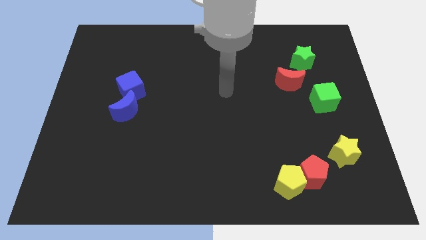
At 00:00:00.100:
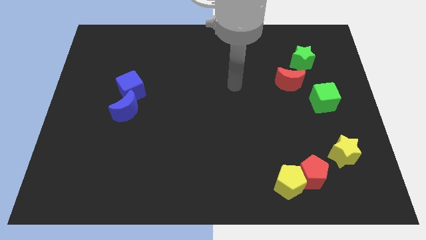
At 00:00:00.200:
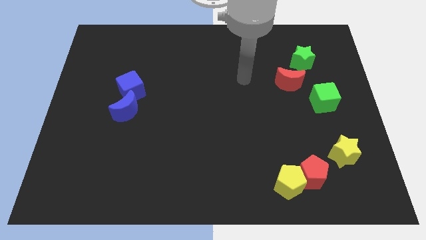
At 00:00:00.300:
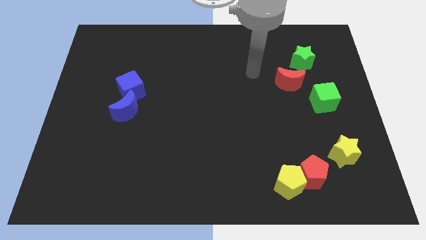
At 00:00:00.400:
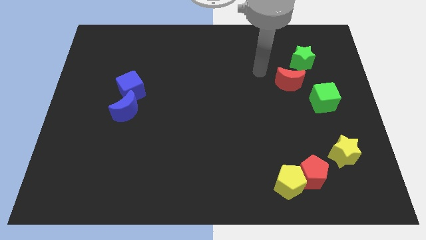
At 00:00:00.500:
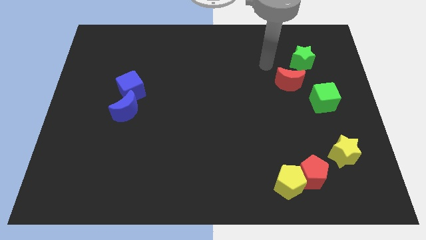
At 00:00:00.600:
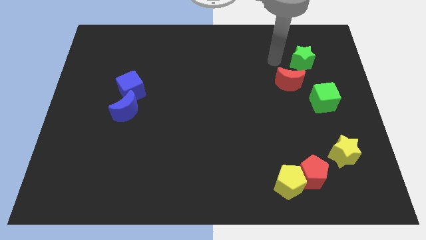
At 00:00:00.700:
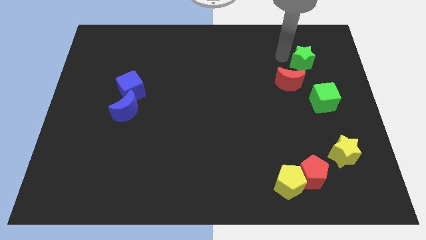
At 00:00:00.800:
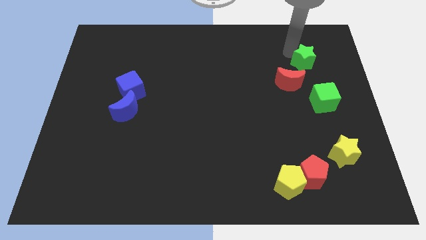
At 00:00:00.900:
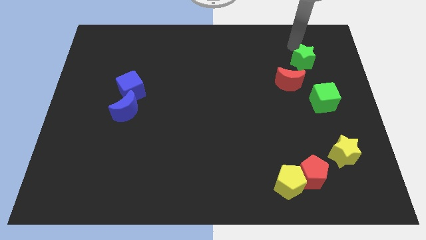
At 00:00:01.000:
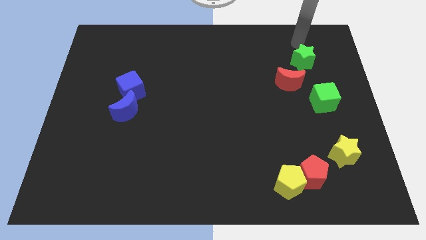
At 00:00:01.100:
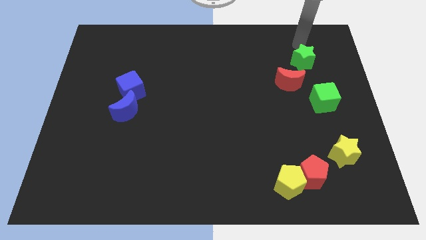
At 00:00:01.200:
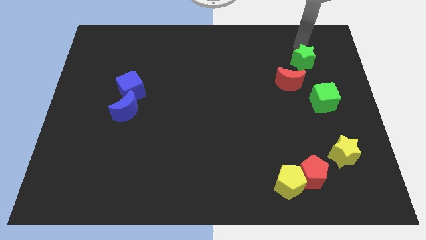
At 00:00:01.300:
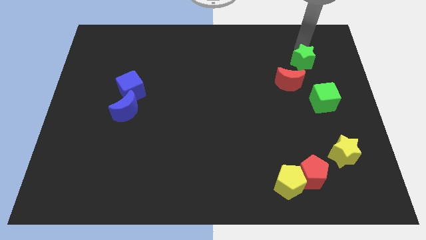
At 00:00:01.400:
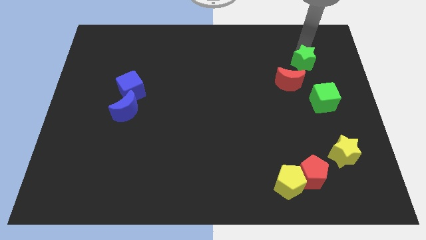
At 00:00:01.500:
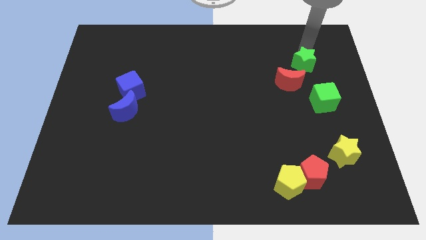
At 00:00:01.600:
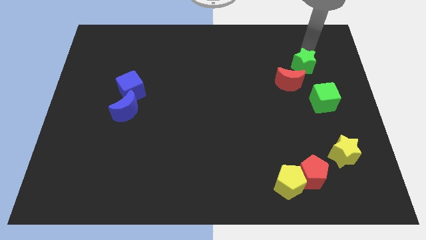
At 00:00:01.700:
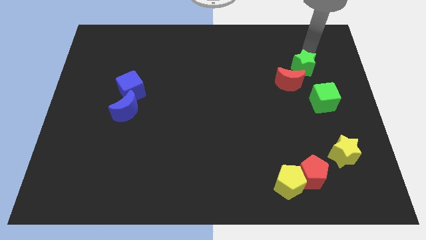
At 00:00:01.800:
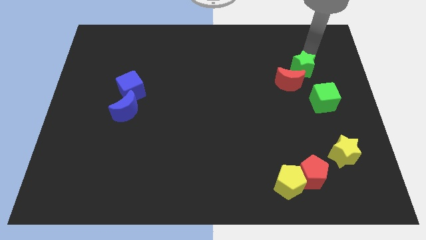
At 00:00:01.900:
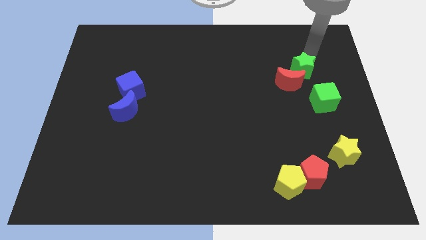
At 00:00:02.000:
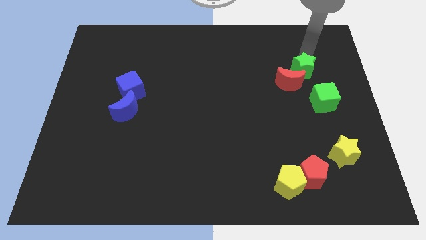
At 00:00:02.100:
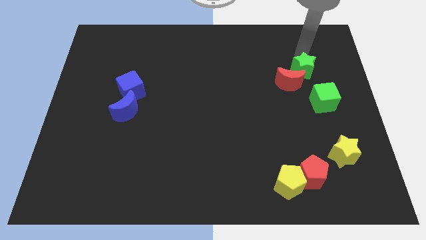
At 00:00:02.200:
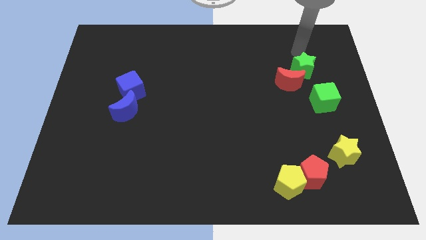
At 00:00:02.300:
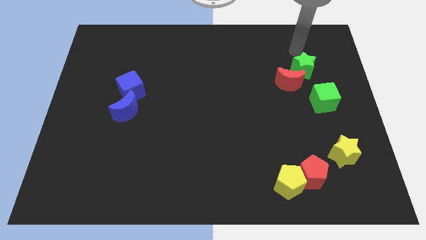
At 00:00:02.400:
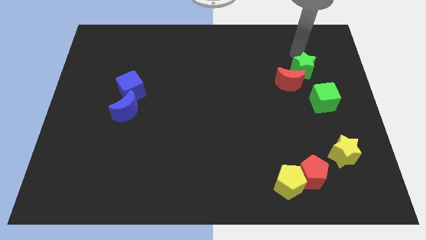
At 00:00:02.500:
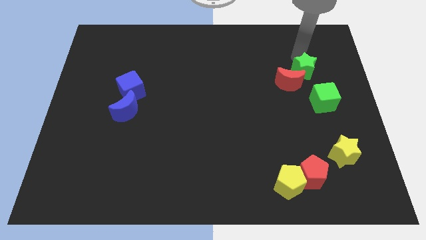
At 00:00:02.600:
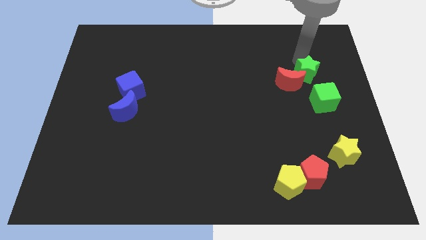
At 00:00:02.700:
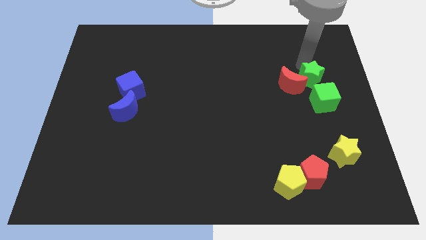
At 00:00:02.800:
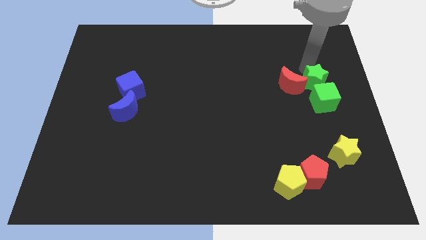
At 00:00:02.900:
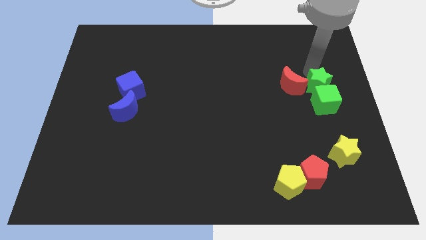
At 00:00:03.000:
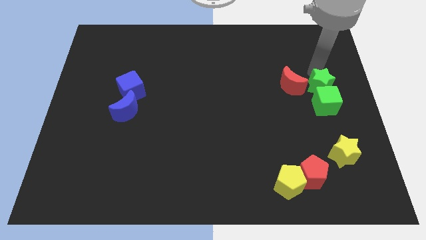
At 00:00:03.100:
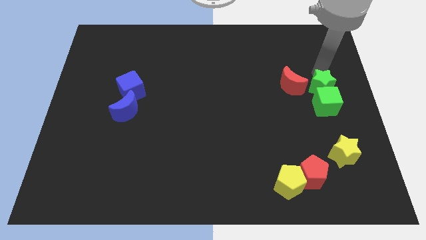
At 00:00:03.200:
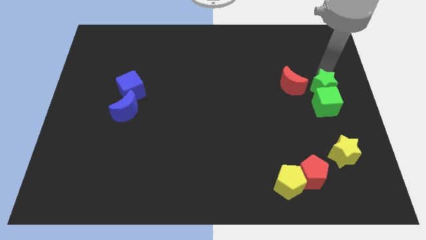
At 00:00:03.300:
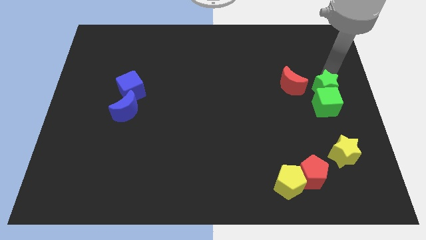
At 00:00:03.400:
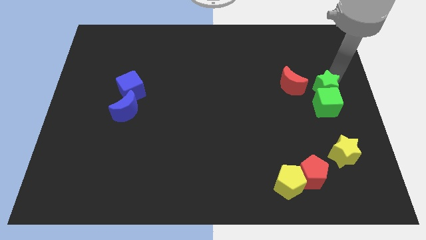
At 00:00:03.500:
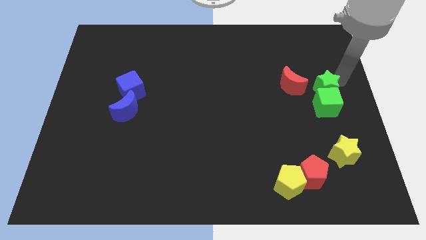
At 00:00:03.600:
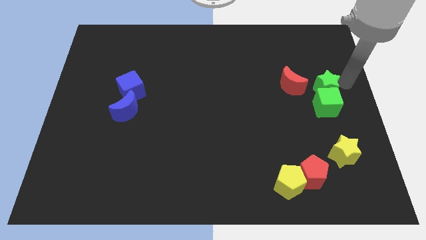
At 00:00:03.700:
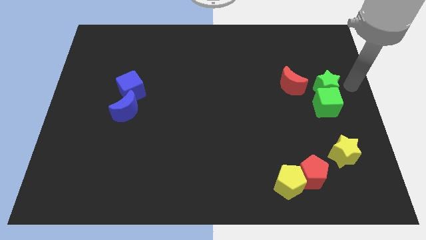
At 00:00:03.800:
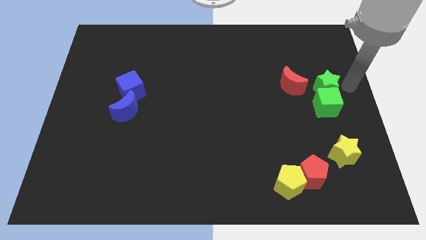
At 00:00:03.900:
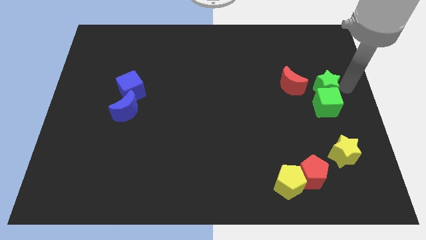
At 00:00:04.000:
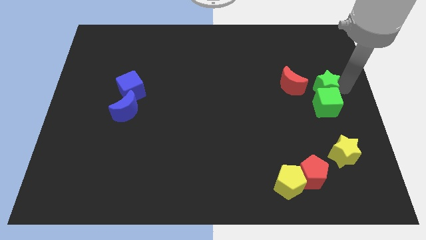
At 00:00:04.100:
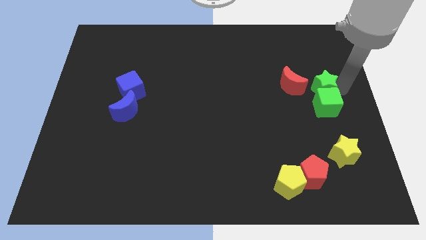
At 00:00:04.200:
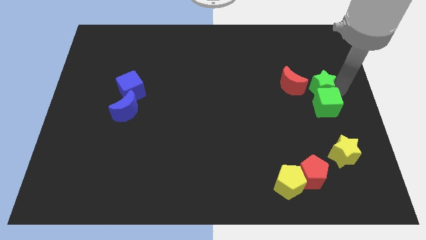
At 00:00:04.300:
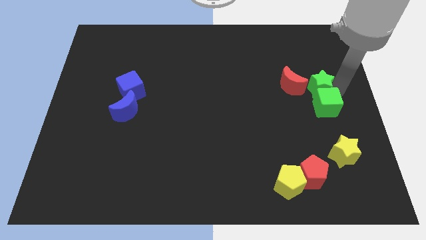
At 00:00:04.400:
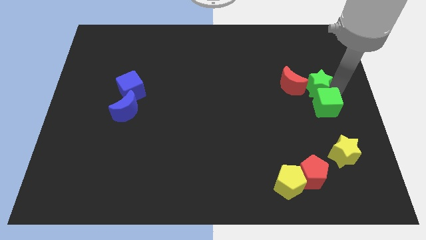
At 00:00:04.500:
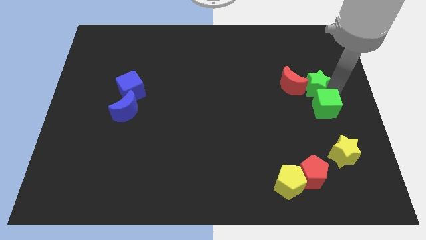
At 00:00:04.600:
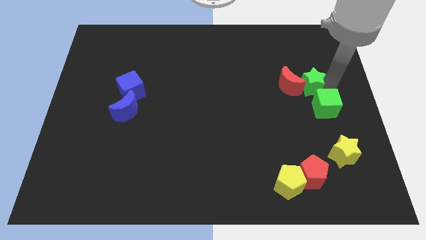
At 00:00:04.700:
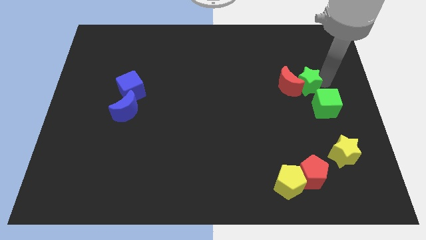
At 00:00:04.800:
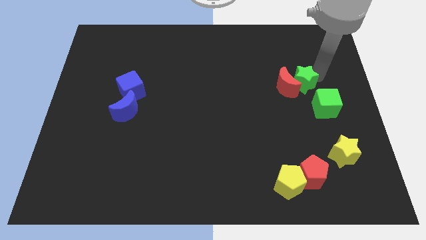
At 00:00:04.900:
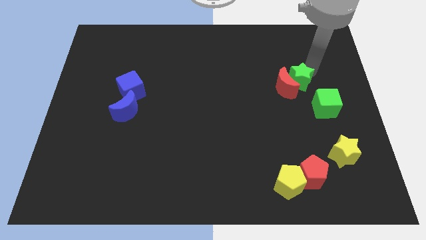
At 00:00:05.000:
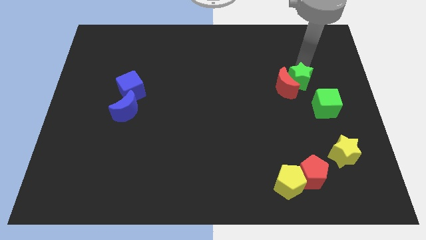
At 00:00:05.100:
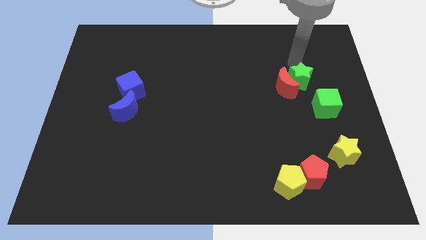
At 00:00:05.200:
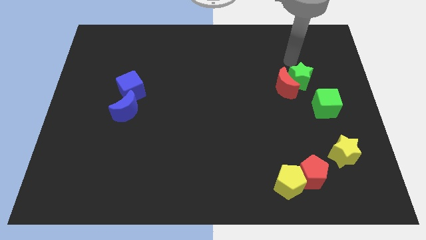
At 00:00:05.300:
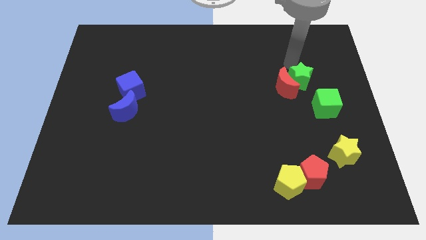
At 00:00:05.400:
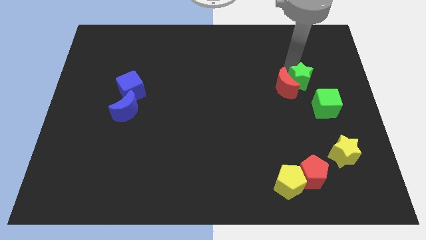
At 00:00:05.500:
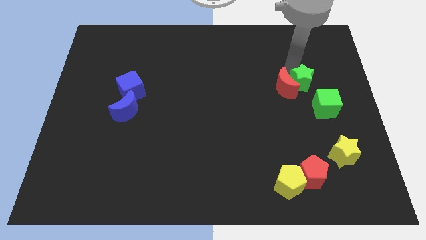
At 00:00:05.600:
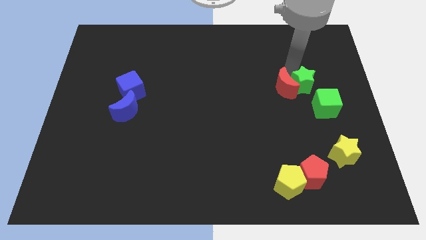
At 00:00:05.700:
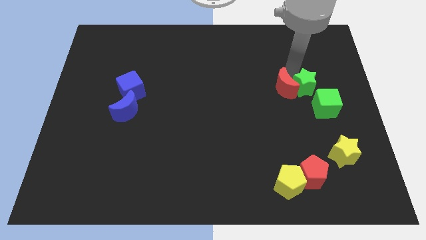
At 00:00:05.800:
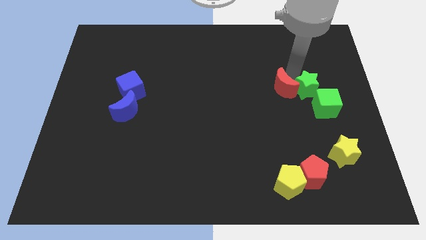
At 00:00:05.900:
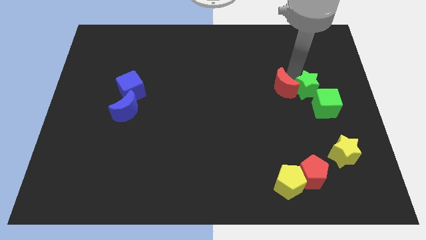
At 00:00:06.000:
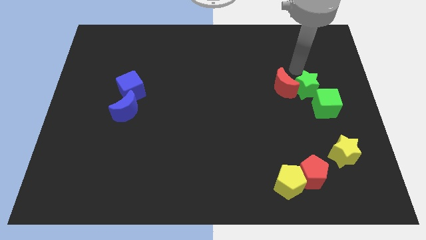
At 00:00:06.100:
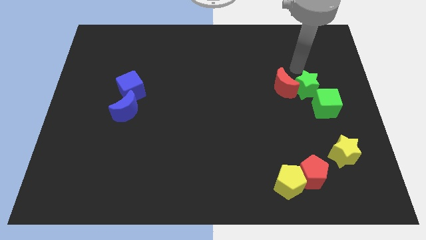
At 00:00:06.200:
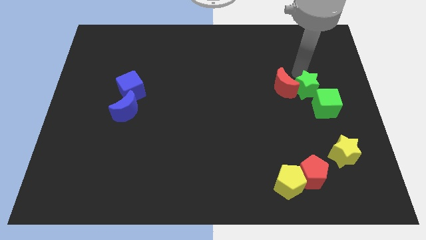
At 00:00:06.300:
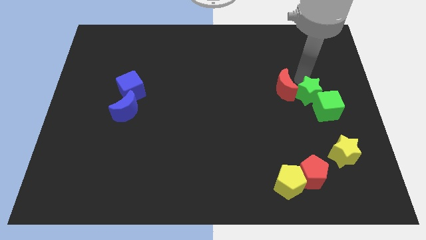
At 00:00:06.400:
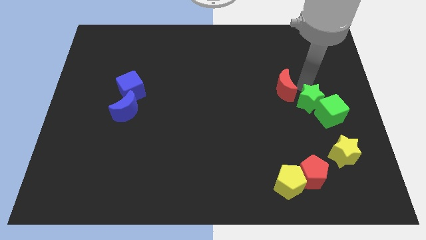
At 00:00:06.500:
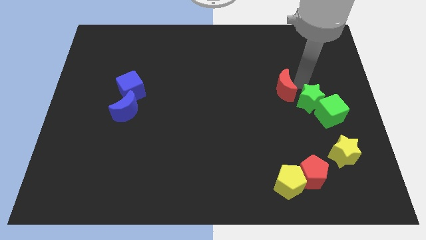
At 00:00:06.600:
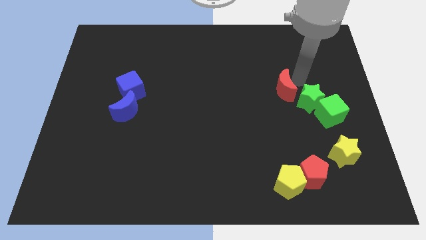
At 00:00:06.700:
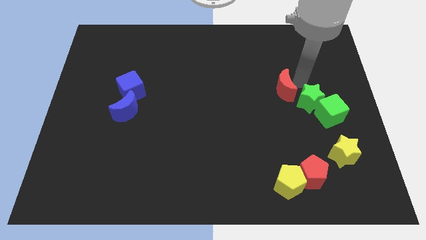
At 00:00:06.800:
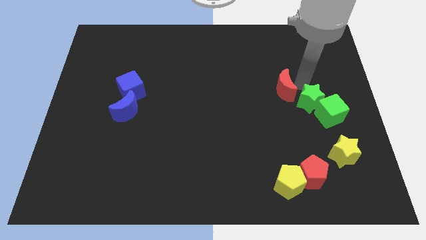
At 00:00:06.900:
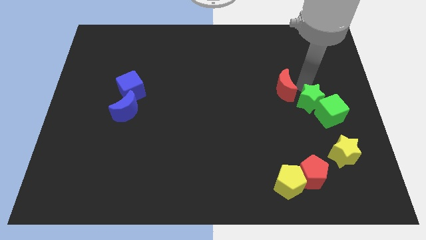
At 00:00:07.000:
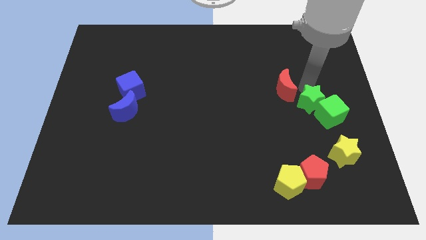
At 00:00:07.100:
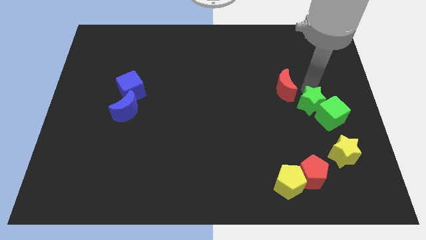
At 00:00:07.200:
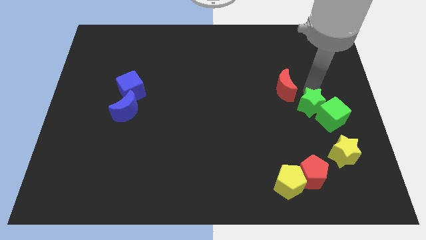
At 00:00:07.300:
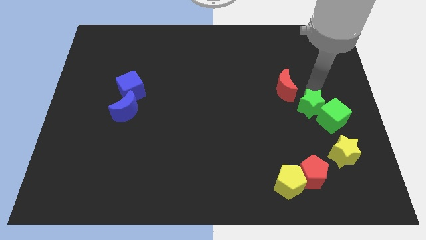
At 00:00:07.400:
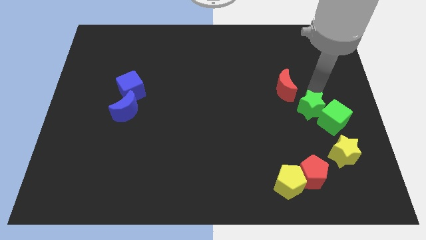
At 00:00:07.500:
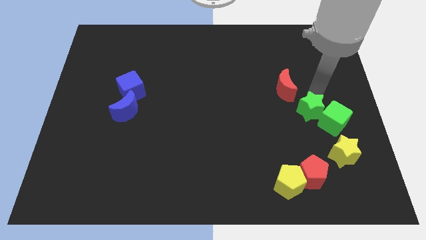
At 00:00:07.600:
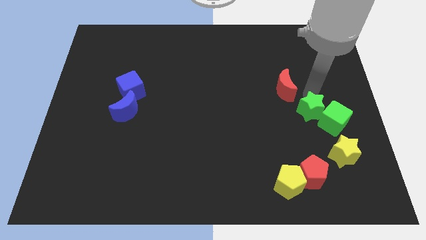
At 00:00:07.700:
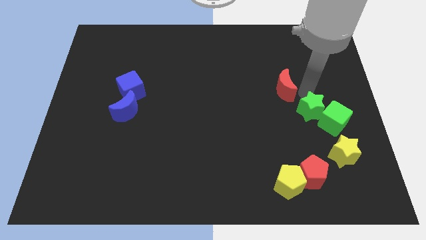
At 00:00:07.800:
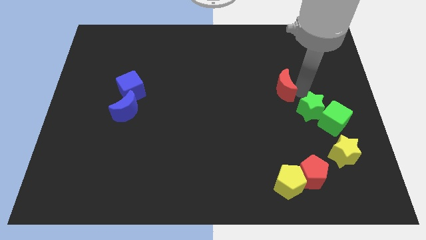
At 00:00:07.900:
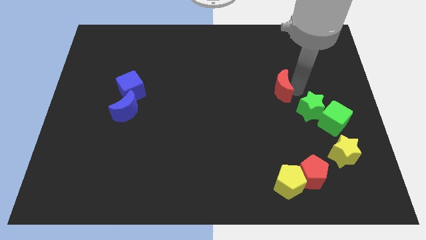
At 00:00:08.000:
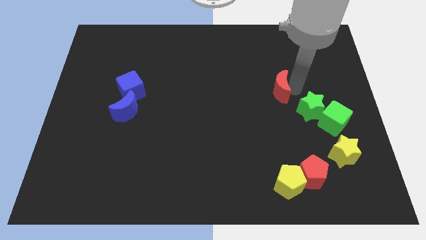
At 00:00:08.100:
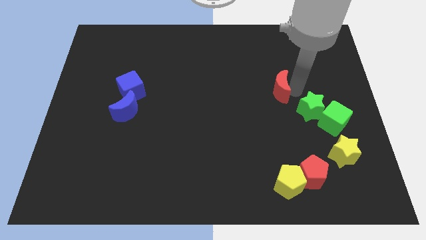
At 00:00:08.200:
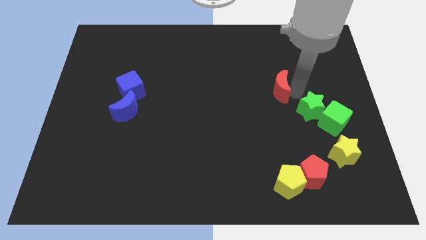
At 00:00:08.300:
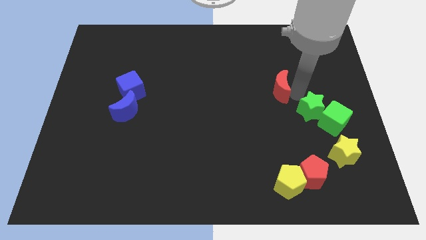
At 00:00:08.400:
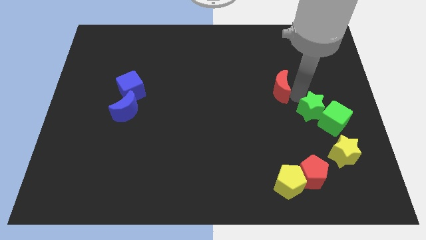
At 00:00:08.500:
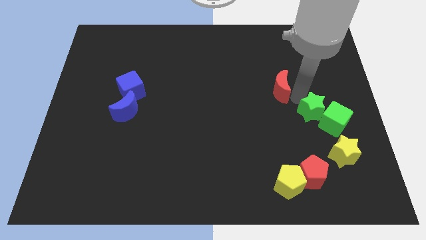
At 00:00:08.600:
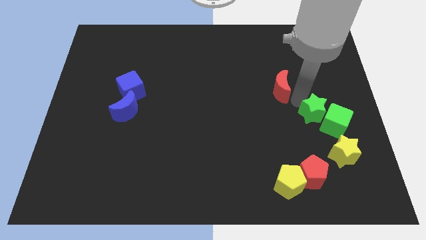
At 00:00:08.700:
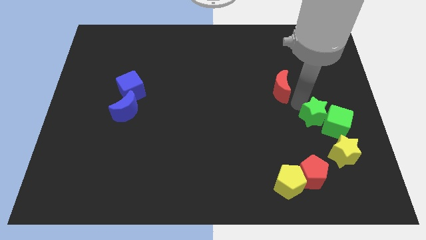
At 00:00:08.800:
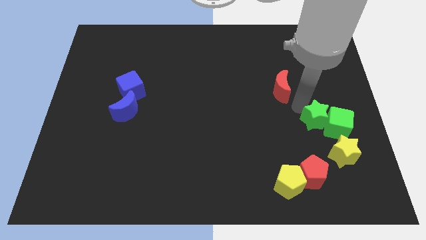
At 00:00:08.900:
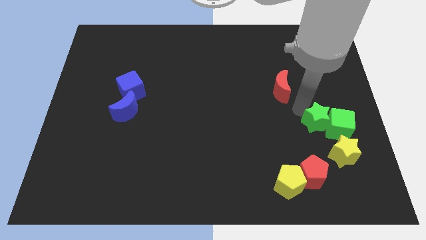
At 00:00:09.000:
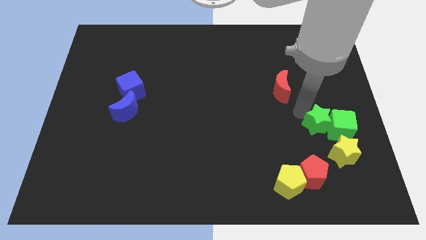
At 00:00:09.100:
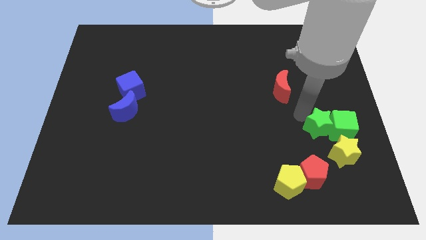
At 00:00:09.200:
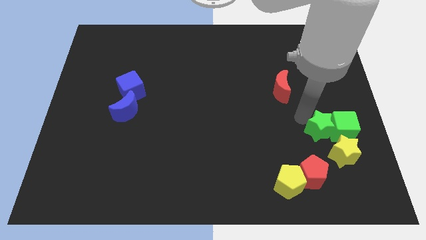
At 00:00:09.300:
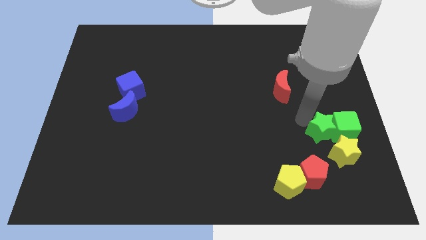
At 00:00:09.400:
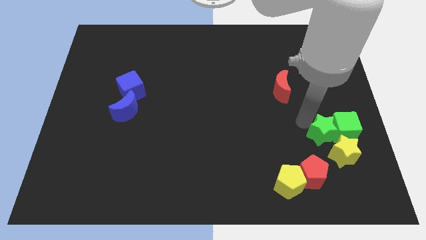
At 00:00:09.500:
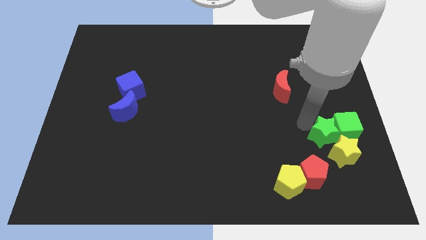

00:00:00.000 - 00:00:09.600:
push the green star towards the yellow star
